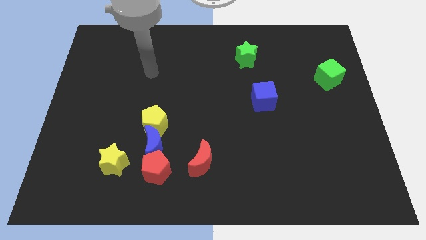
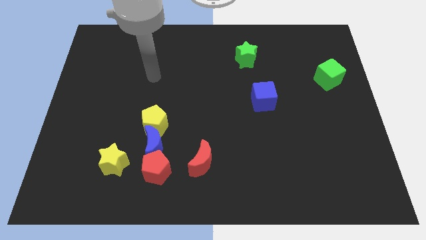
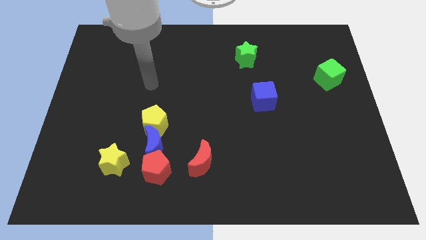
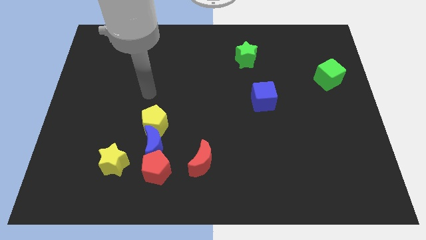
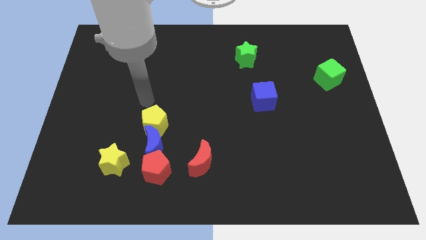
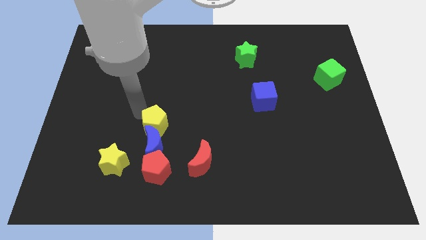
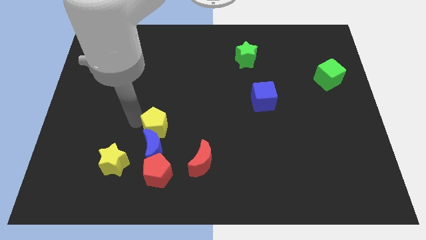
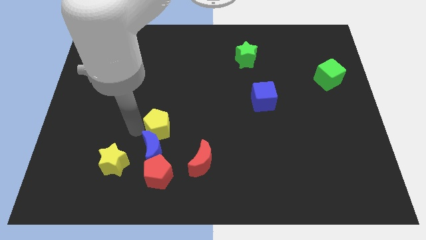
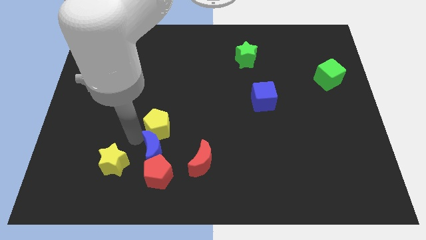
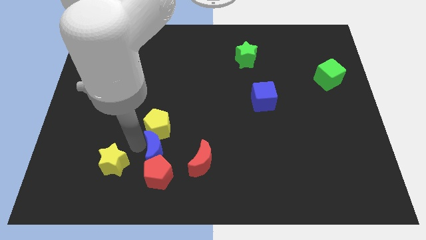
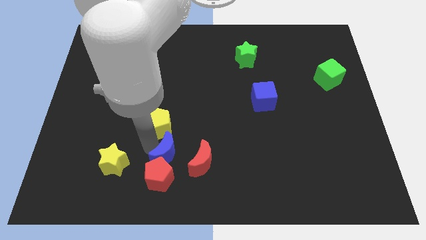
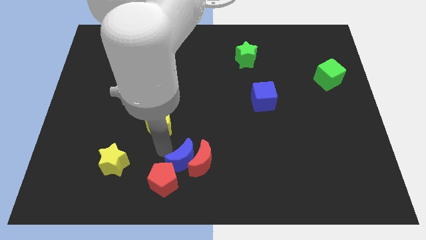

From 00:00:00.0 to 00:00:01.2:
separate the yellow pentagon from the blue moon

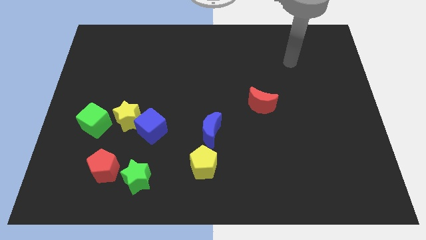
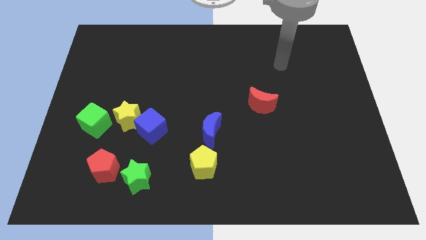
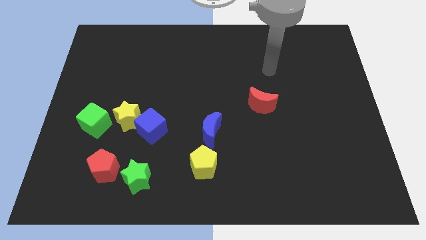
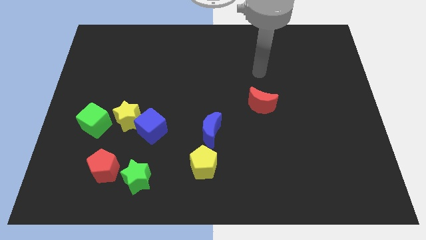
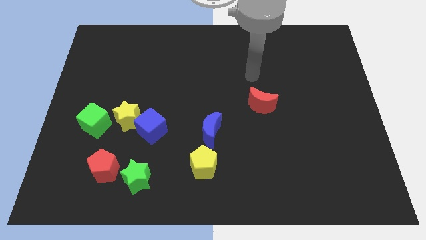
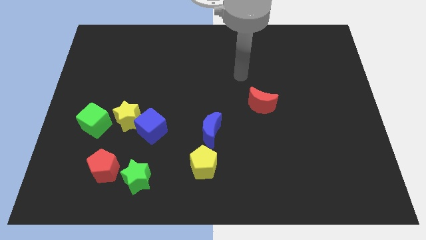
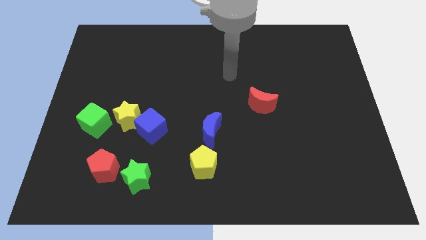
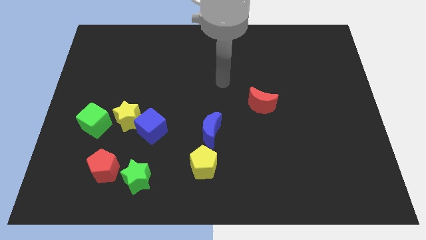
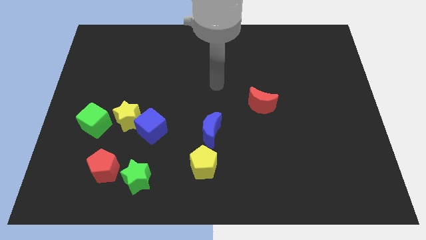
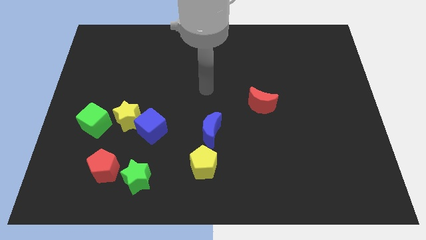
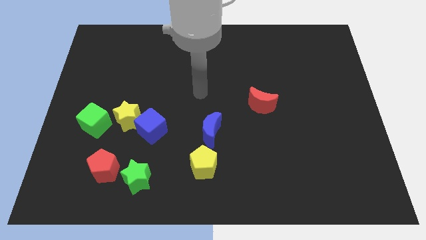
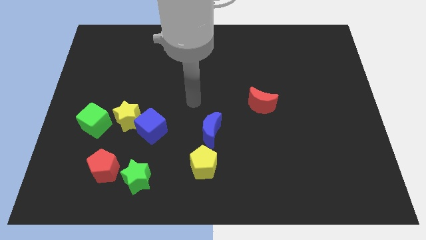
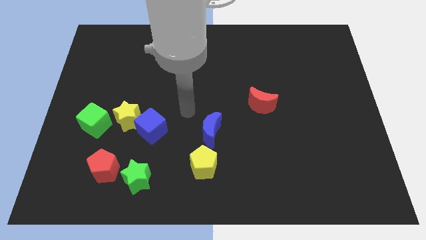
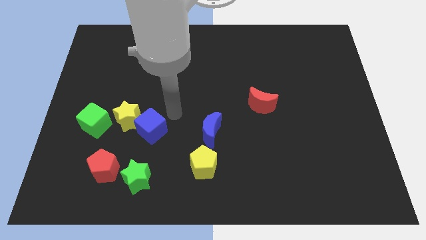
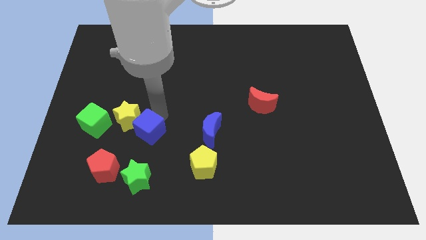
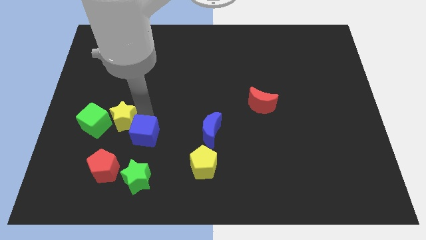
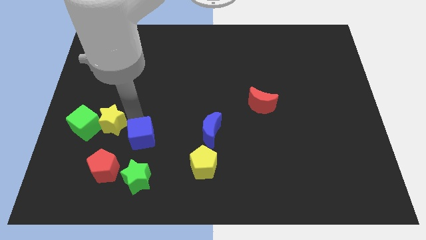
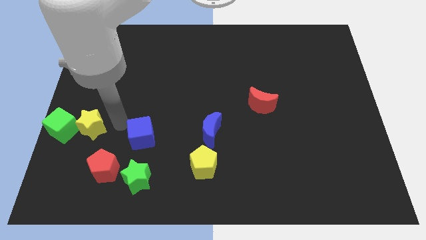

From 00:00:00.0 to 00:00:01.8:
move the blue cube away from the yellow star

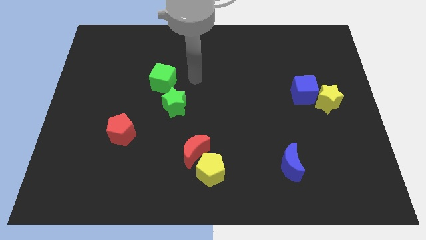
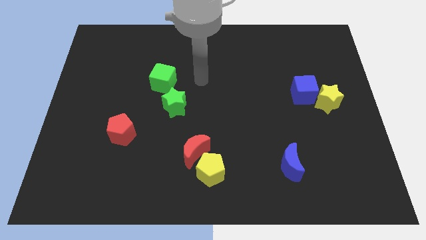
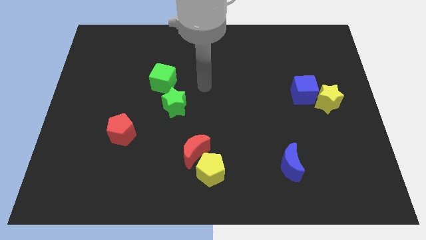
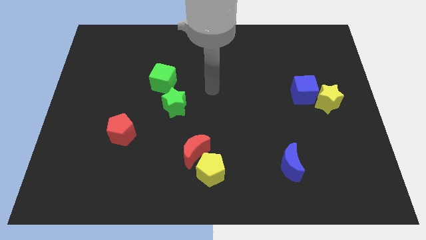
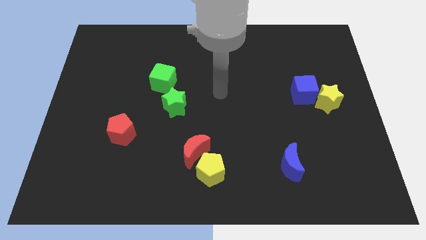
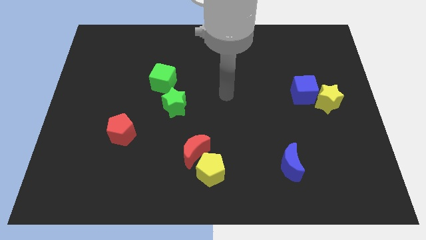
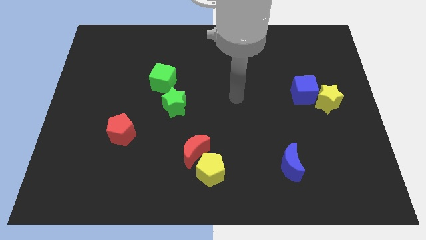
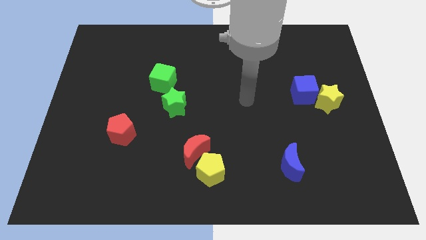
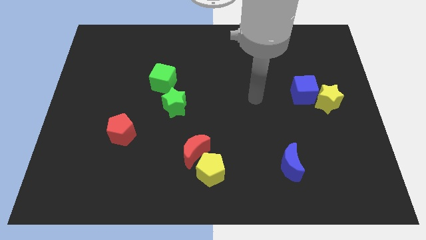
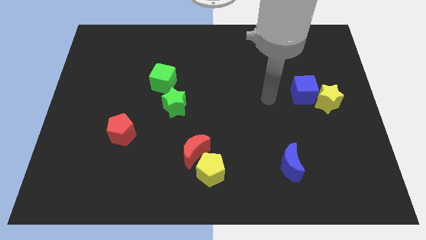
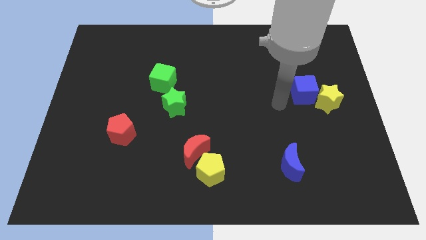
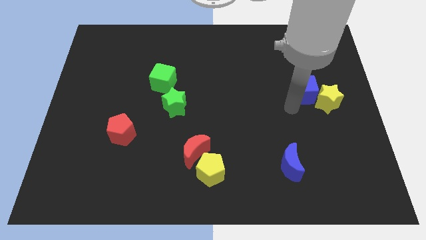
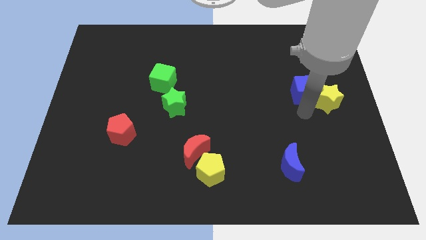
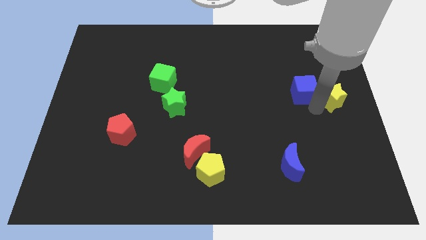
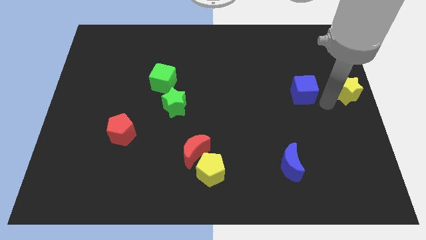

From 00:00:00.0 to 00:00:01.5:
pull the blue cube apart from the yellow star

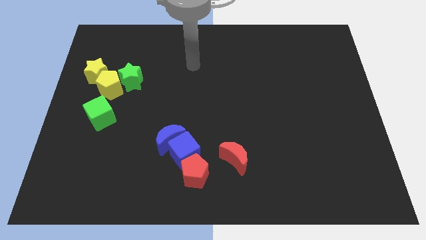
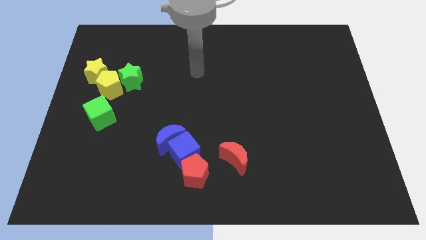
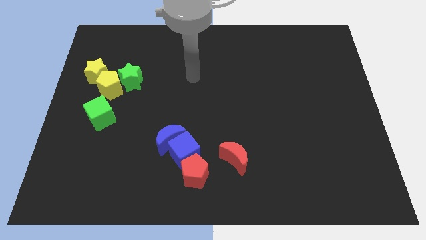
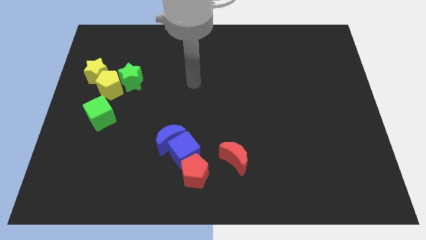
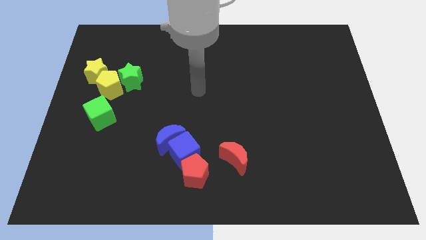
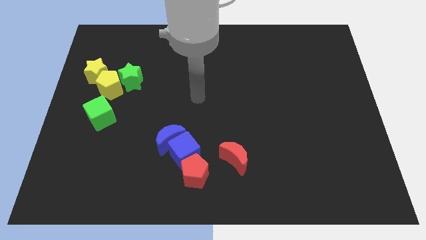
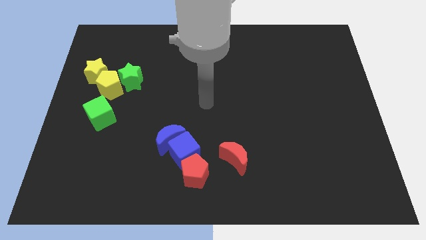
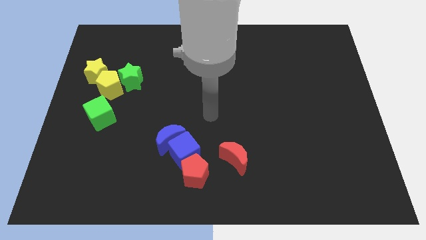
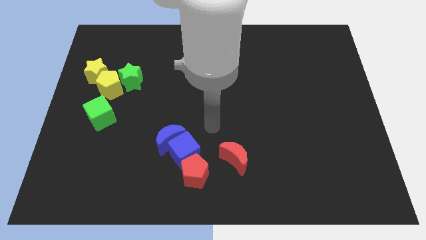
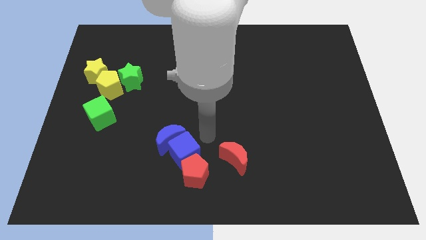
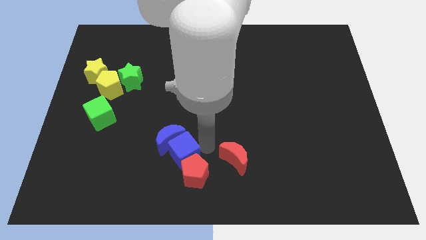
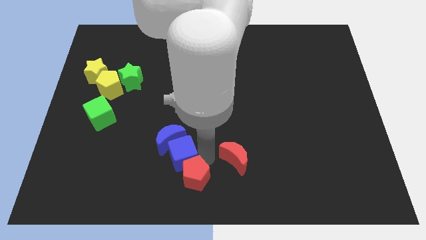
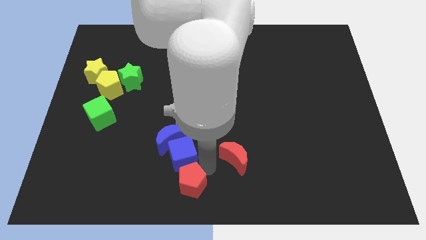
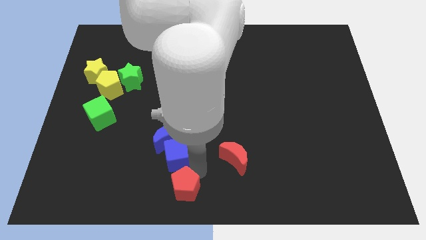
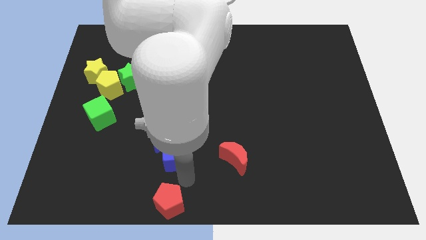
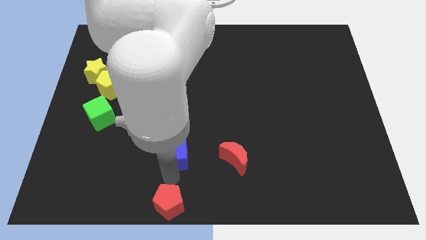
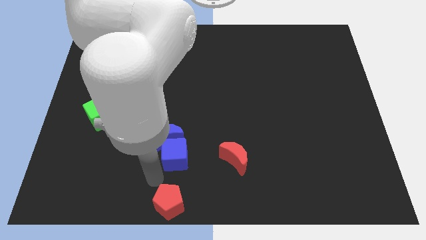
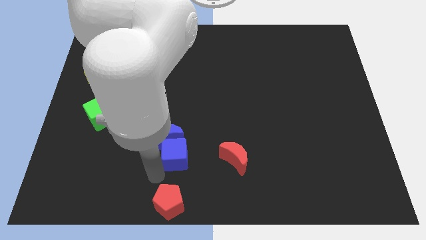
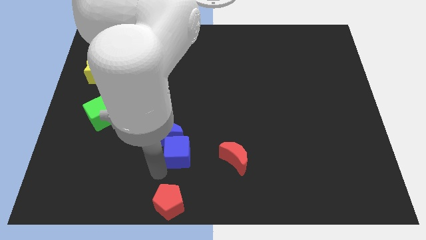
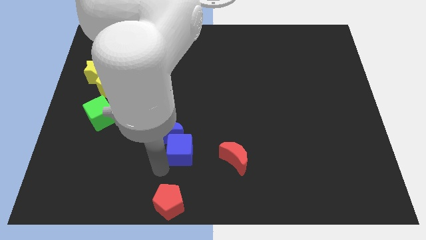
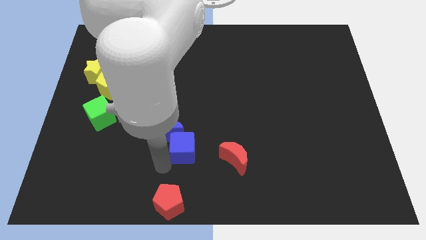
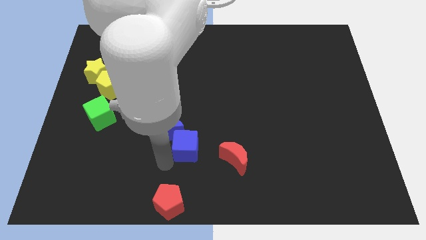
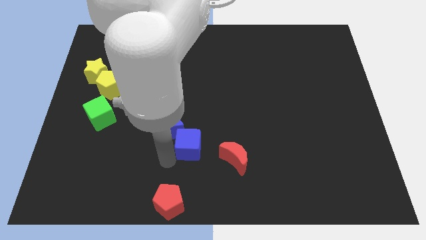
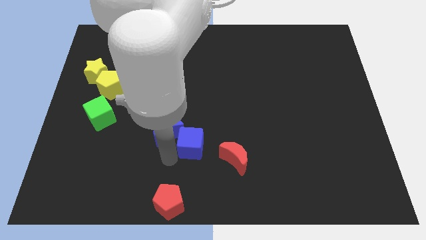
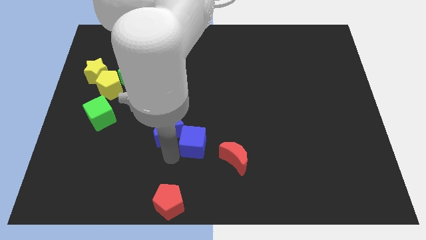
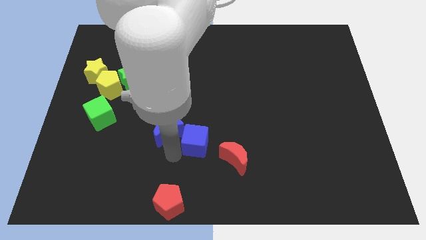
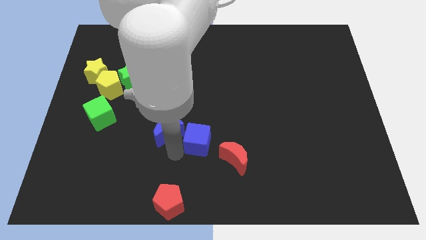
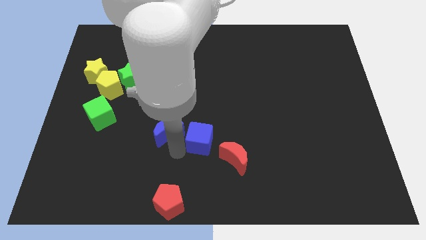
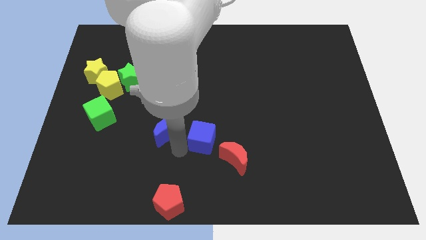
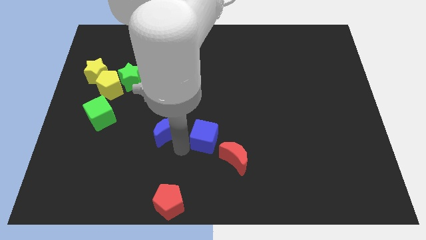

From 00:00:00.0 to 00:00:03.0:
pull the blue cube apart from the blue moon and red pentagon

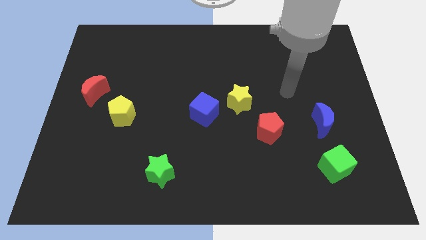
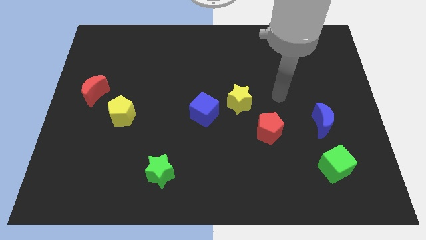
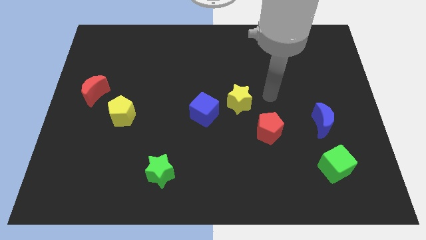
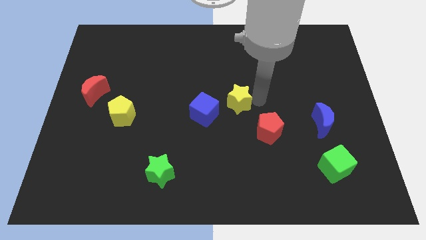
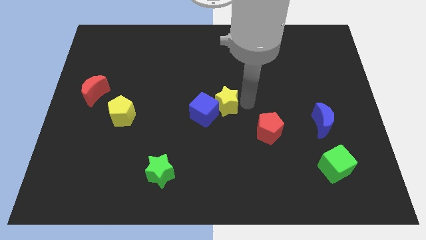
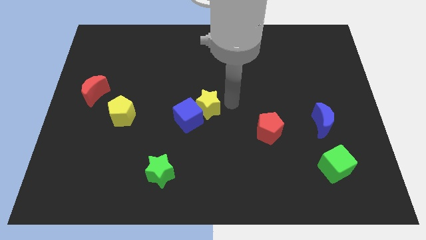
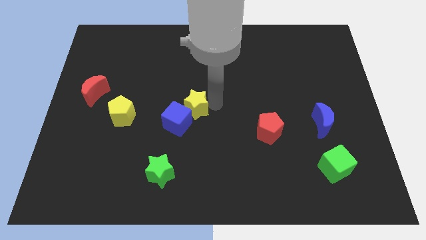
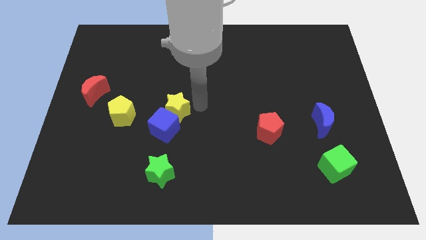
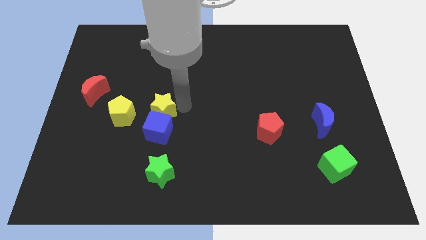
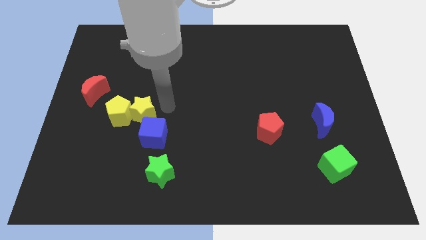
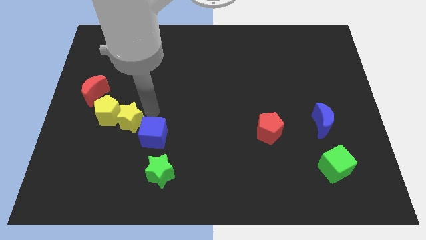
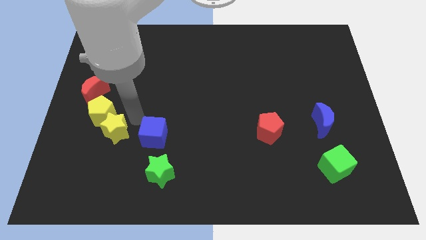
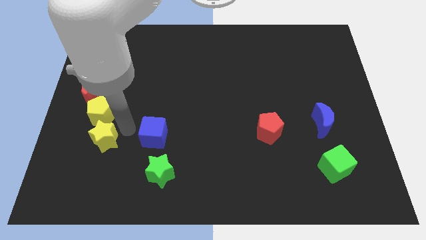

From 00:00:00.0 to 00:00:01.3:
separate the blue cube from the yellow star

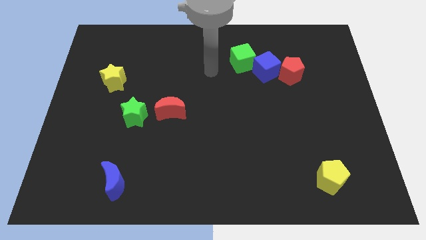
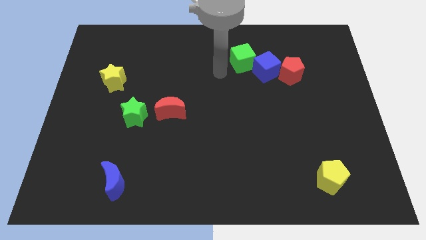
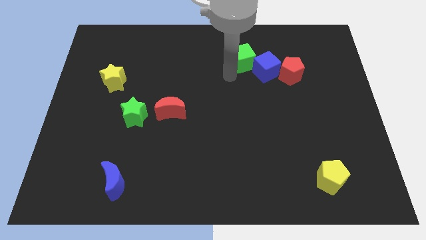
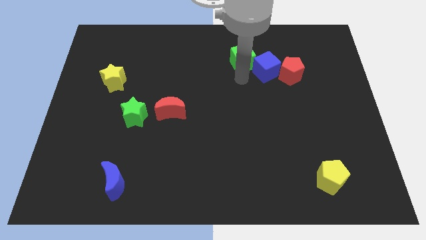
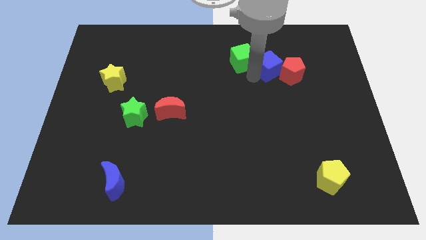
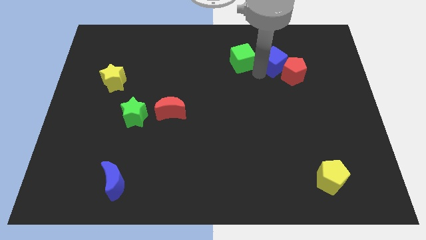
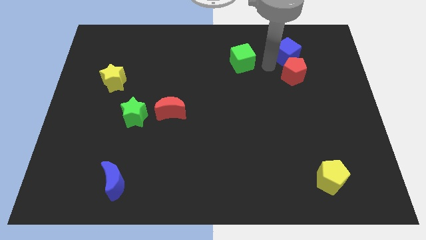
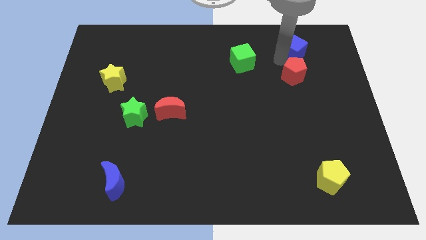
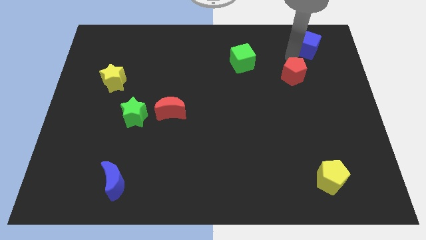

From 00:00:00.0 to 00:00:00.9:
move the red pentagon away from the blue cube
